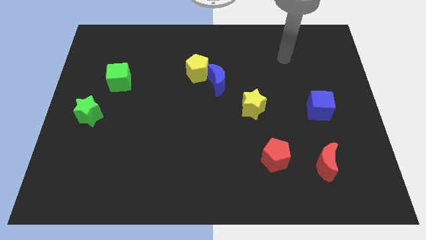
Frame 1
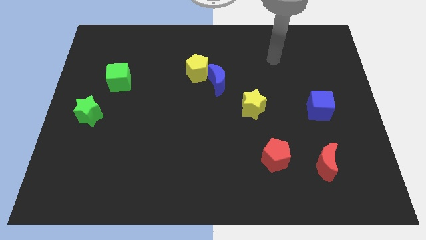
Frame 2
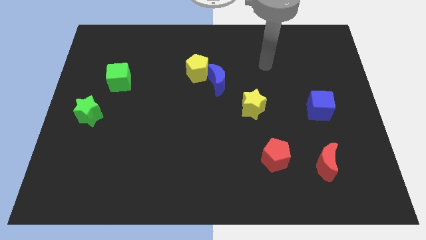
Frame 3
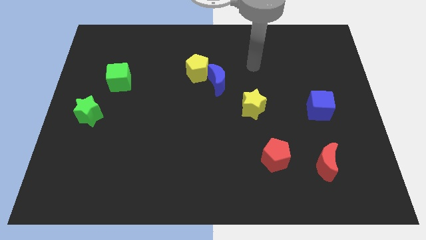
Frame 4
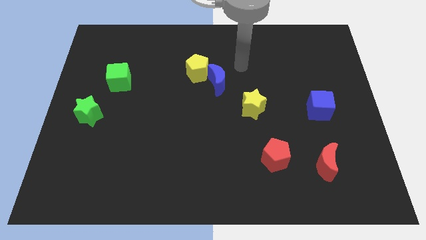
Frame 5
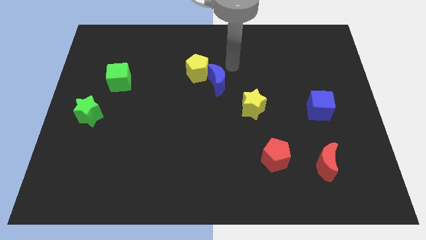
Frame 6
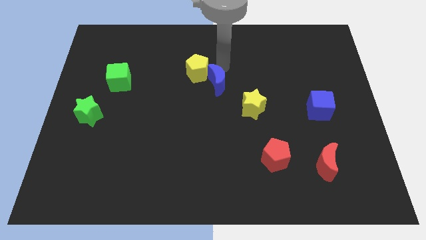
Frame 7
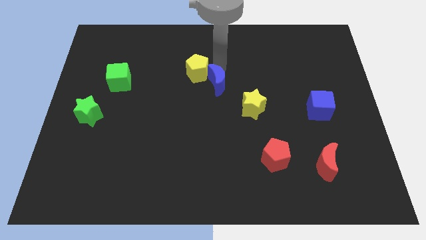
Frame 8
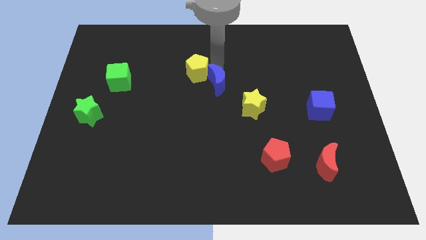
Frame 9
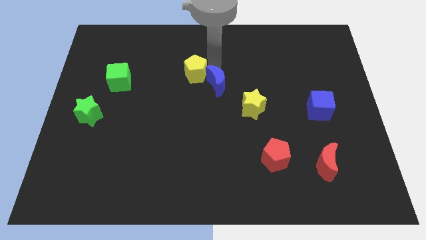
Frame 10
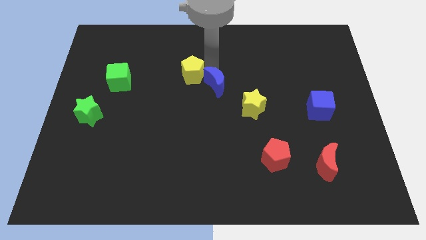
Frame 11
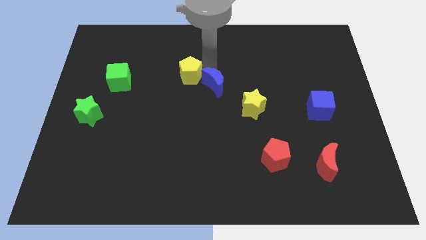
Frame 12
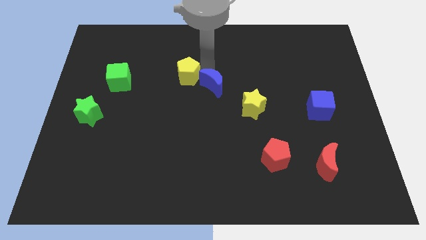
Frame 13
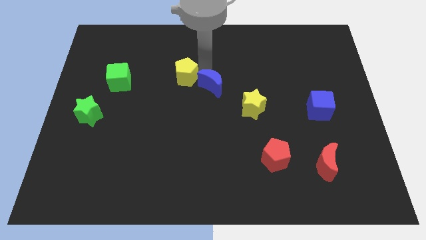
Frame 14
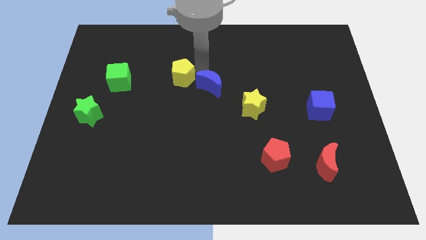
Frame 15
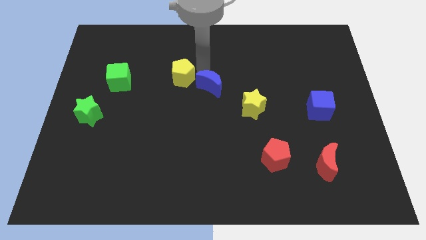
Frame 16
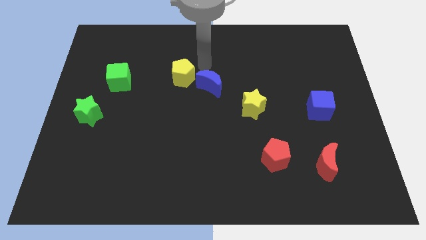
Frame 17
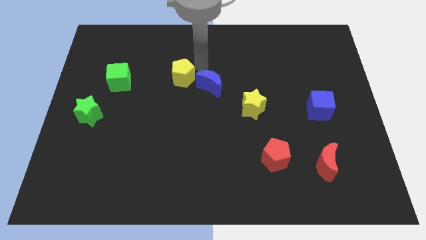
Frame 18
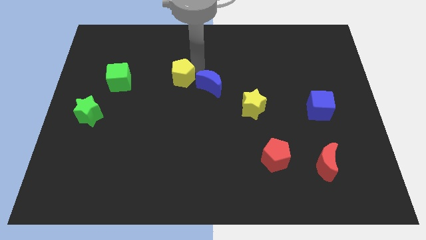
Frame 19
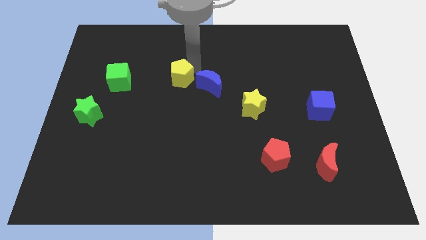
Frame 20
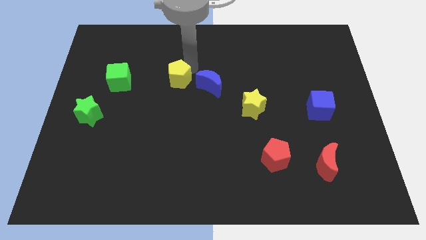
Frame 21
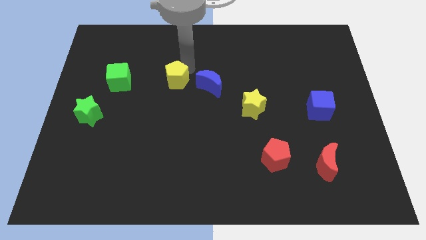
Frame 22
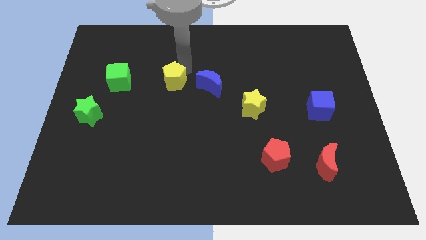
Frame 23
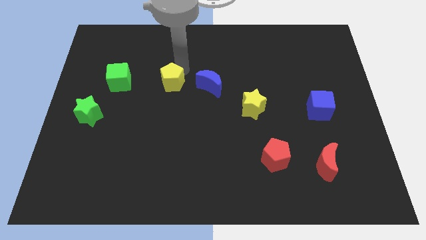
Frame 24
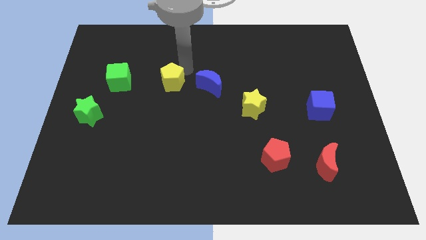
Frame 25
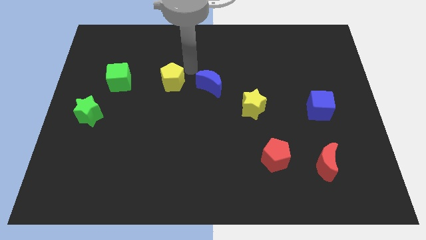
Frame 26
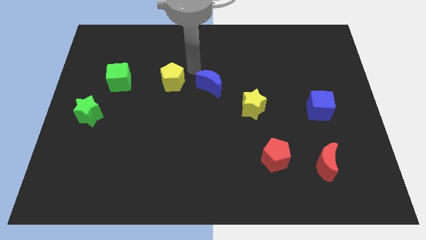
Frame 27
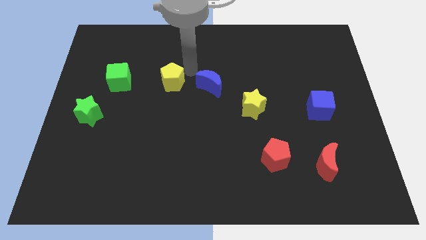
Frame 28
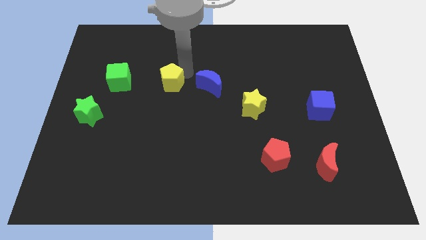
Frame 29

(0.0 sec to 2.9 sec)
move the yellow pentagon diagonally downwards and left a bit

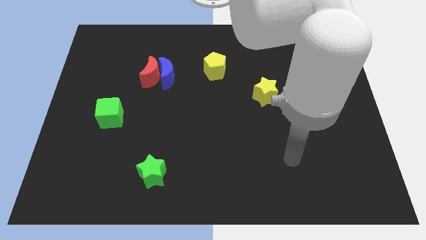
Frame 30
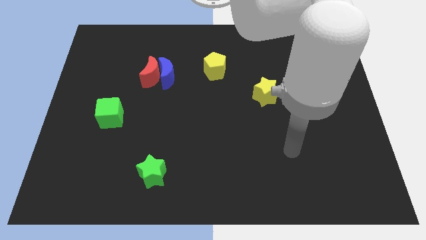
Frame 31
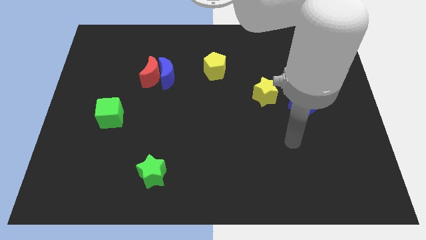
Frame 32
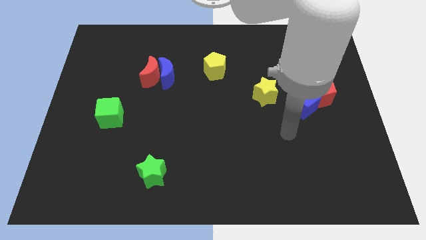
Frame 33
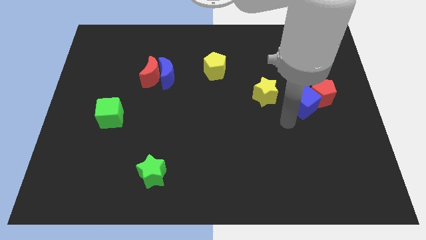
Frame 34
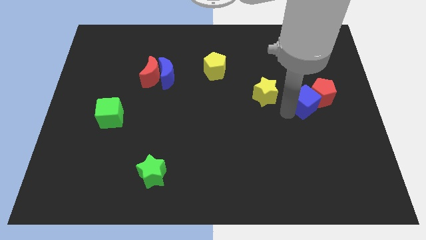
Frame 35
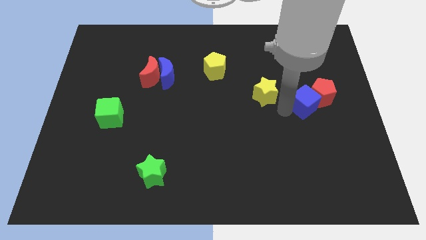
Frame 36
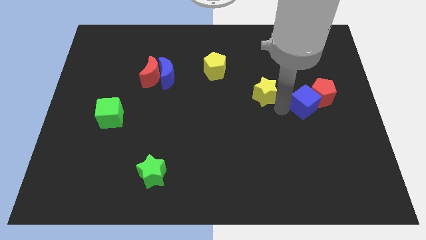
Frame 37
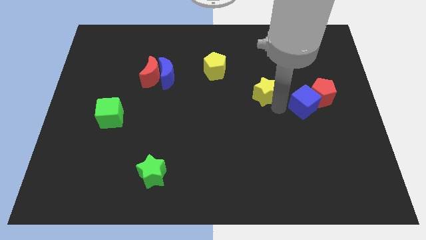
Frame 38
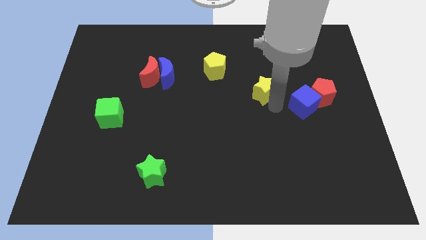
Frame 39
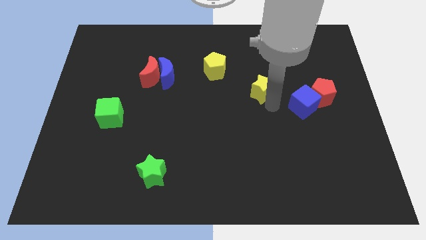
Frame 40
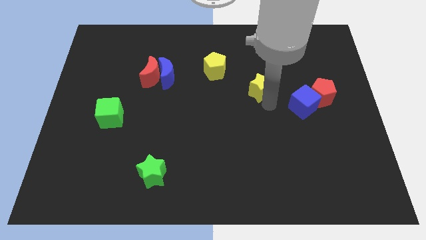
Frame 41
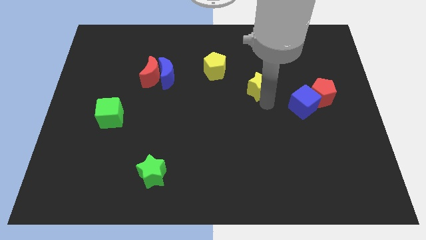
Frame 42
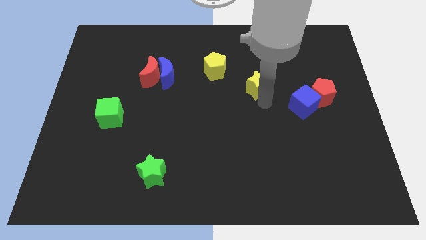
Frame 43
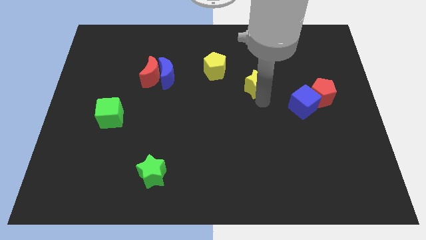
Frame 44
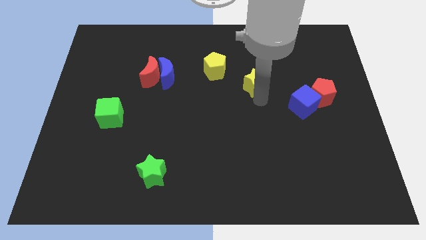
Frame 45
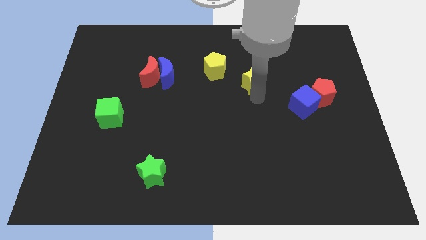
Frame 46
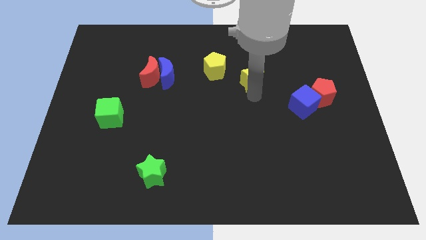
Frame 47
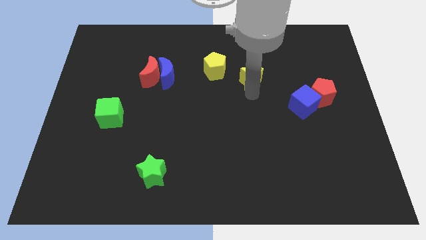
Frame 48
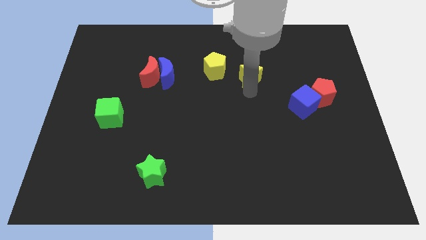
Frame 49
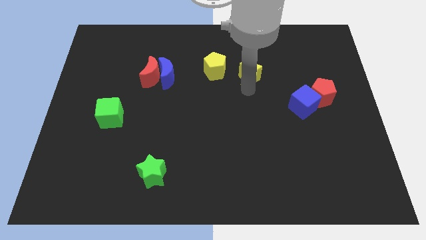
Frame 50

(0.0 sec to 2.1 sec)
slightly move the yellow star up and then to the left

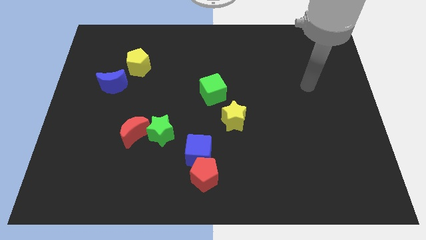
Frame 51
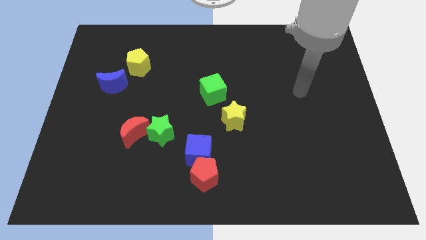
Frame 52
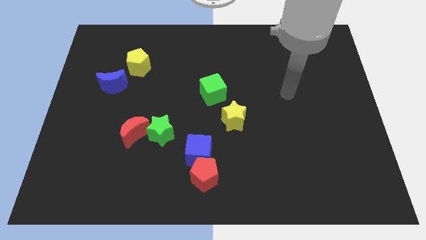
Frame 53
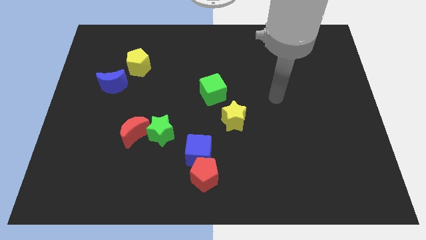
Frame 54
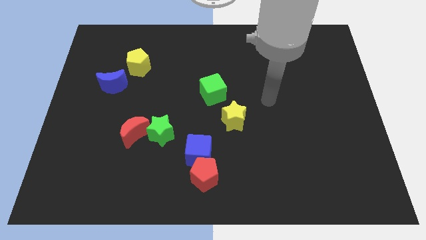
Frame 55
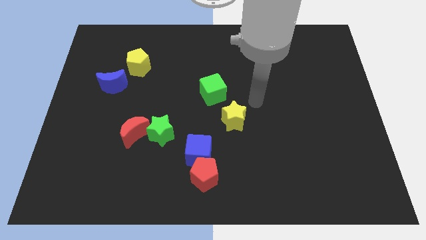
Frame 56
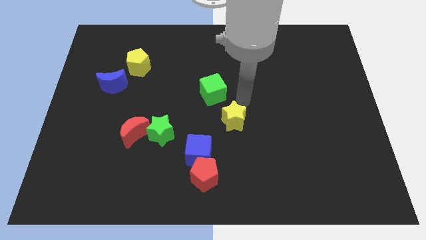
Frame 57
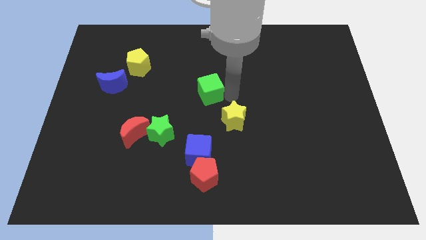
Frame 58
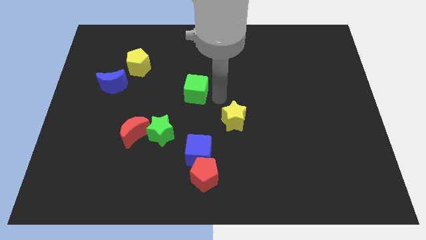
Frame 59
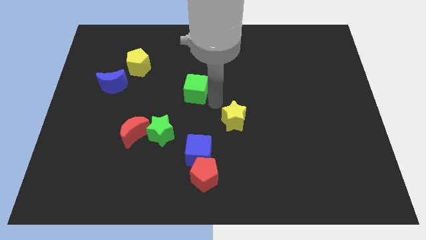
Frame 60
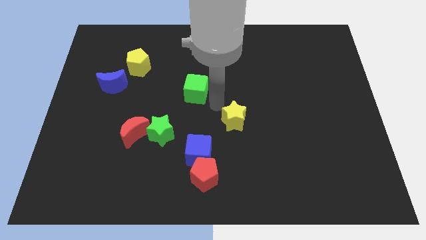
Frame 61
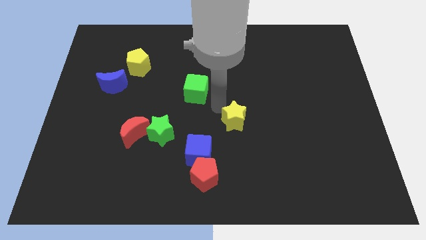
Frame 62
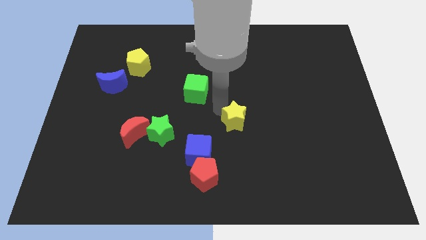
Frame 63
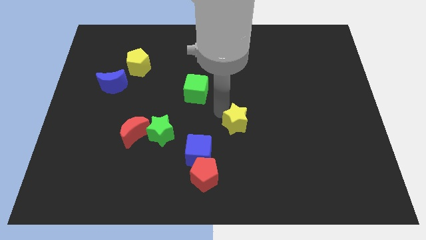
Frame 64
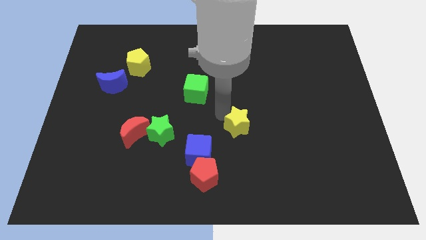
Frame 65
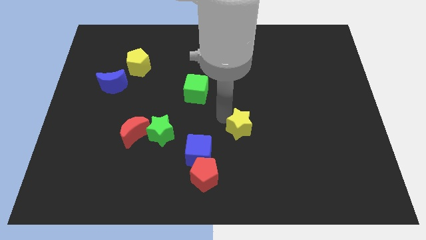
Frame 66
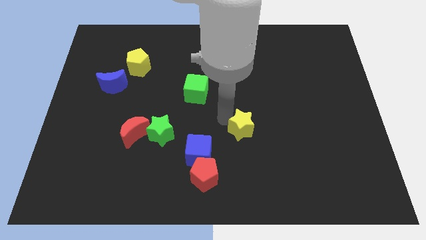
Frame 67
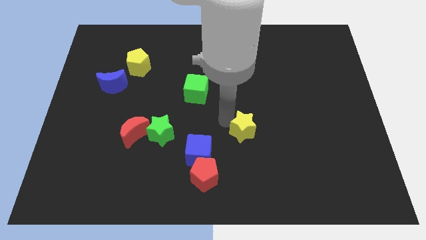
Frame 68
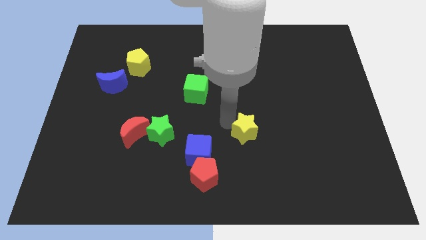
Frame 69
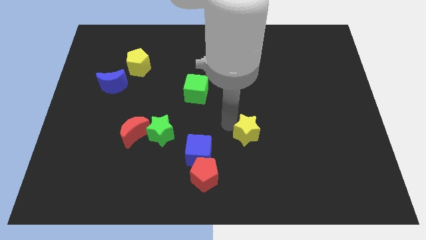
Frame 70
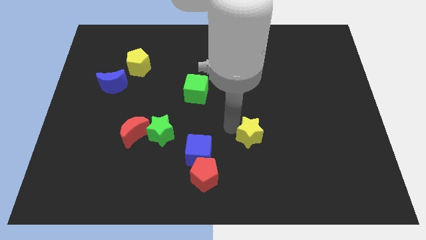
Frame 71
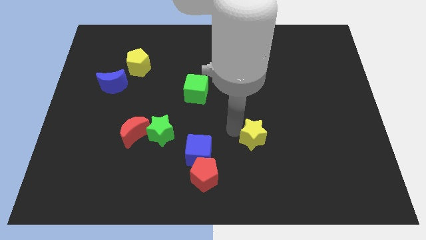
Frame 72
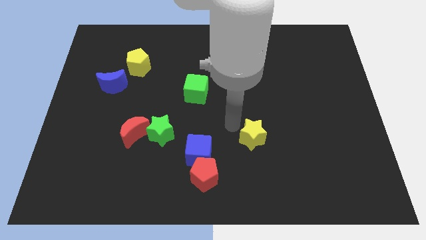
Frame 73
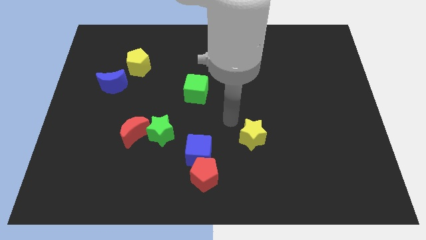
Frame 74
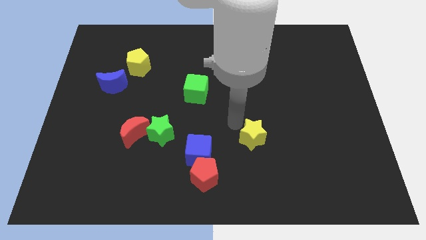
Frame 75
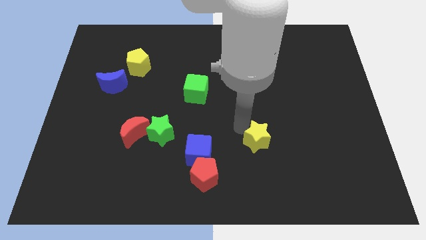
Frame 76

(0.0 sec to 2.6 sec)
move the yellow star downwards and then right a little

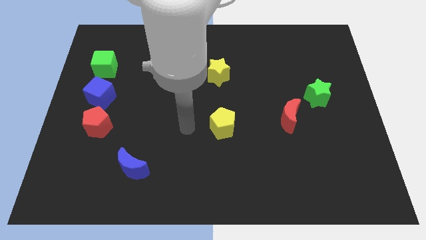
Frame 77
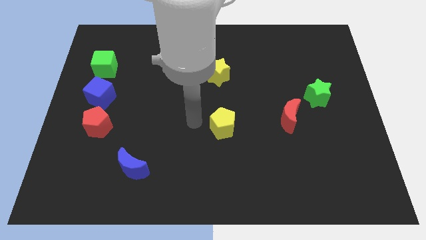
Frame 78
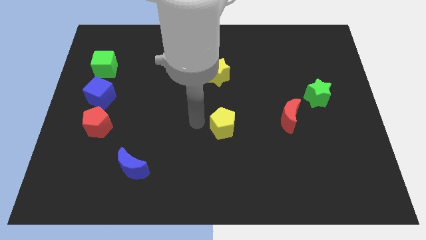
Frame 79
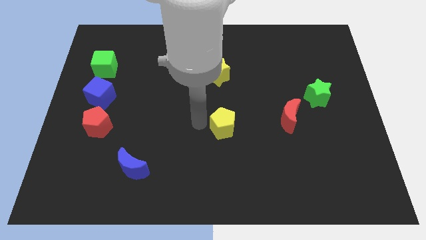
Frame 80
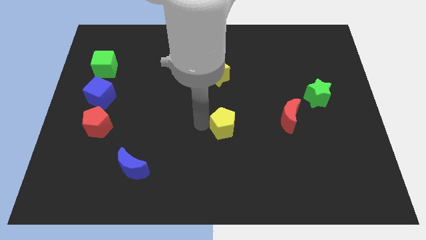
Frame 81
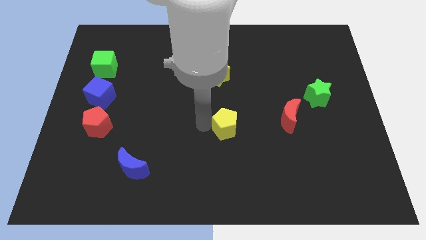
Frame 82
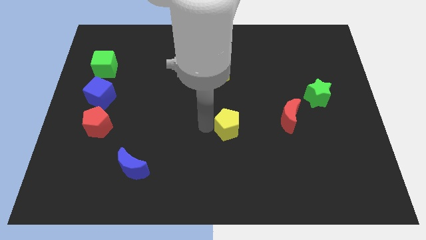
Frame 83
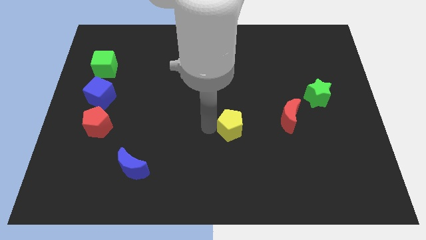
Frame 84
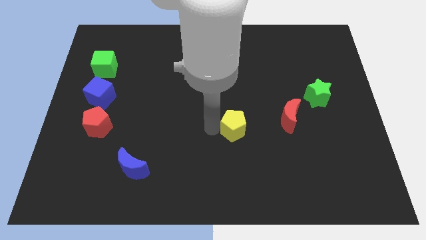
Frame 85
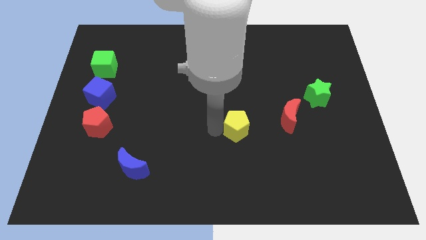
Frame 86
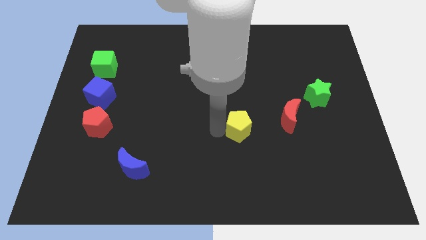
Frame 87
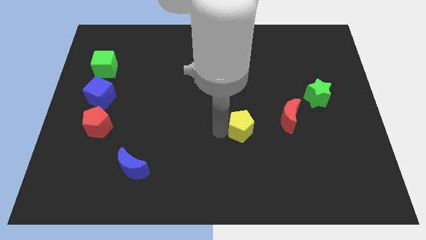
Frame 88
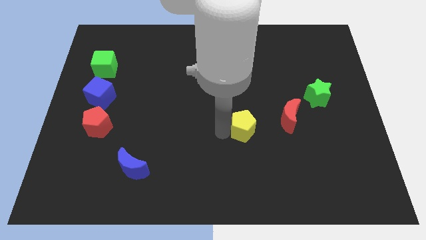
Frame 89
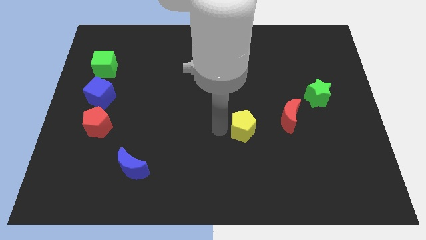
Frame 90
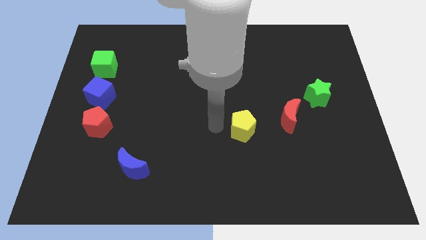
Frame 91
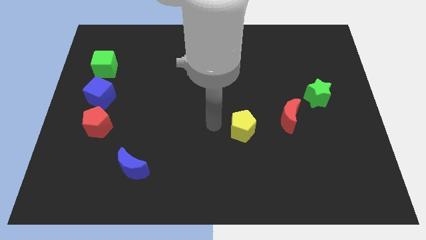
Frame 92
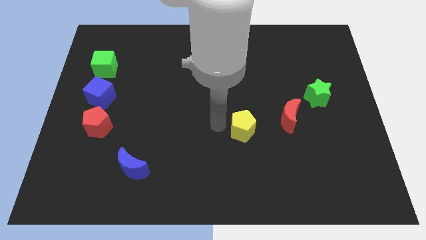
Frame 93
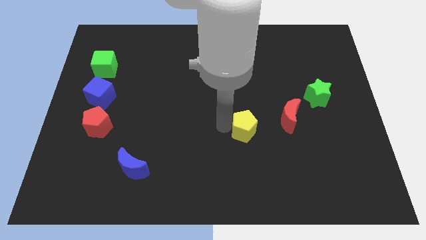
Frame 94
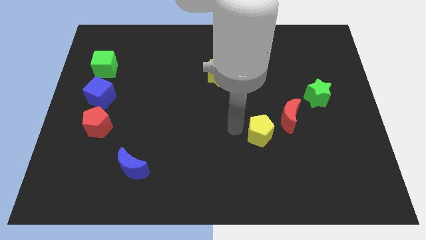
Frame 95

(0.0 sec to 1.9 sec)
move the yellow pentagon to the right somewhat
